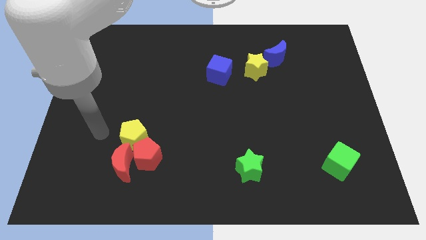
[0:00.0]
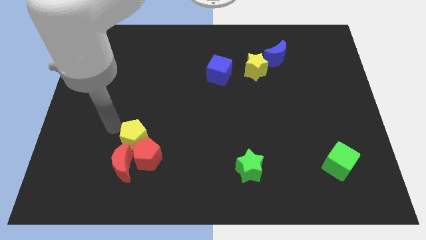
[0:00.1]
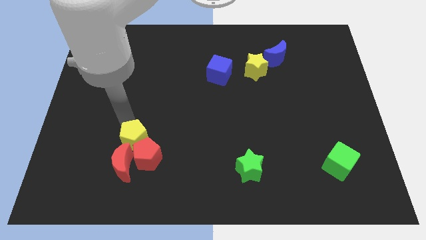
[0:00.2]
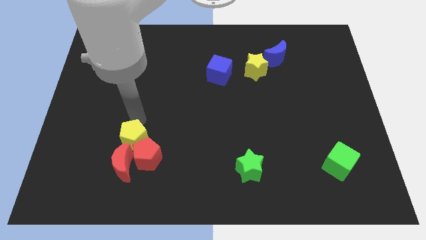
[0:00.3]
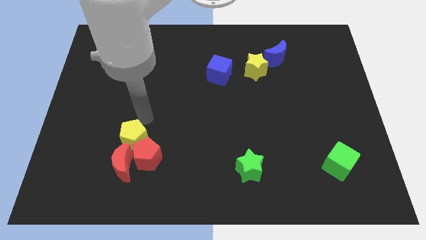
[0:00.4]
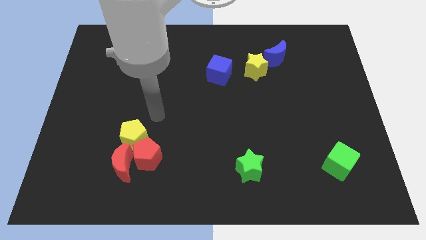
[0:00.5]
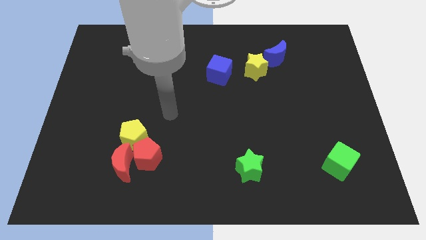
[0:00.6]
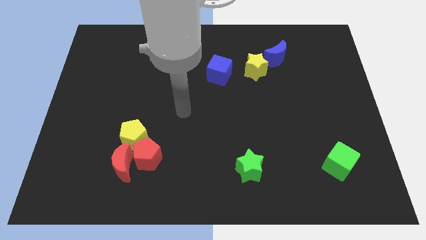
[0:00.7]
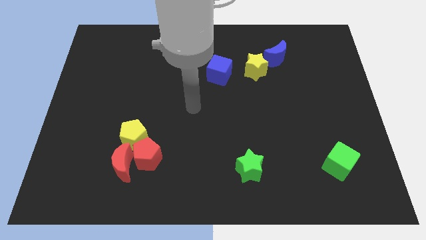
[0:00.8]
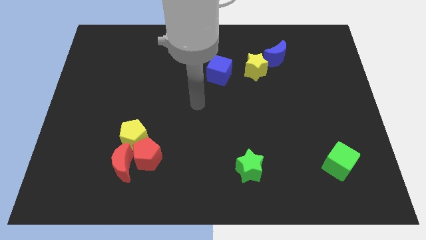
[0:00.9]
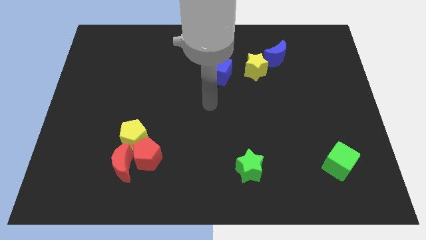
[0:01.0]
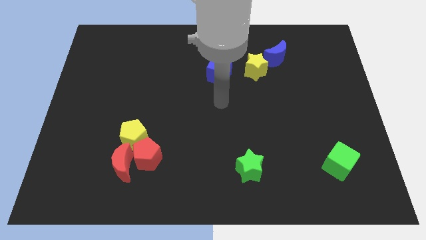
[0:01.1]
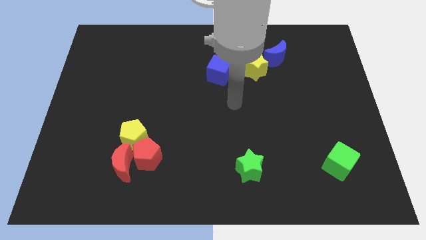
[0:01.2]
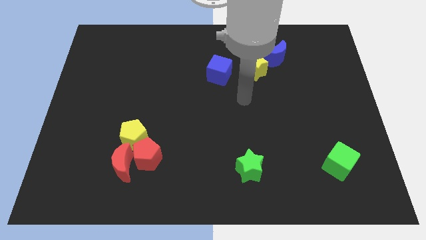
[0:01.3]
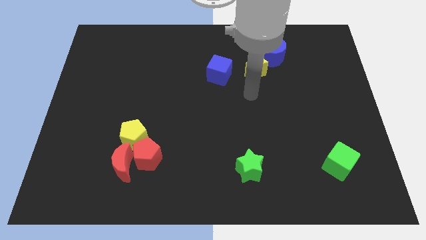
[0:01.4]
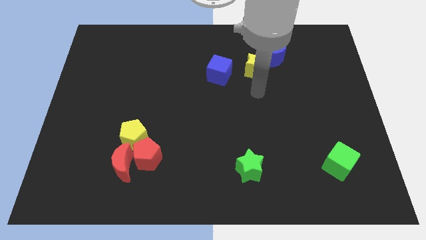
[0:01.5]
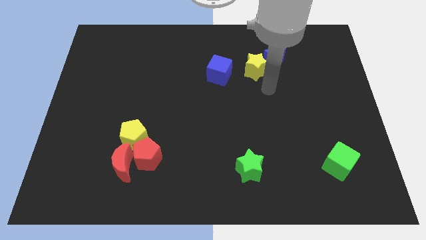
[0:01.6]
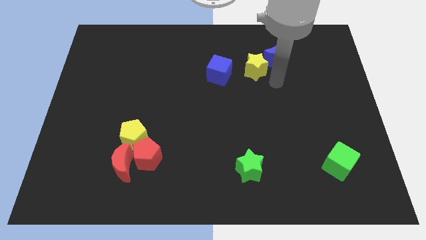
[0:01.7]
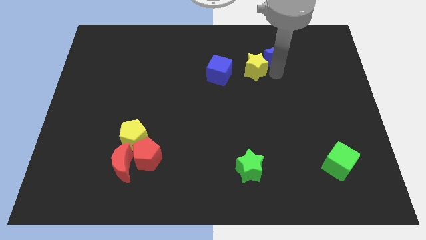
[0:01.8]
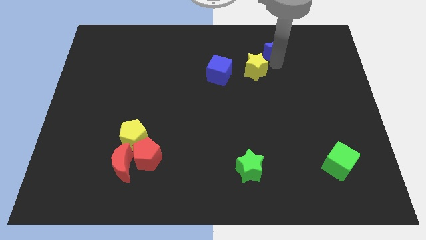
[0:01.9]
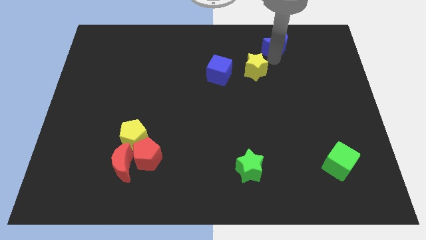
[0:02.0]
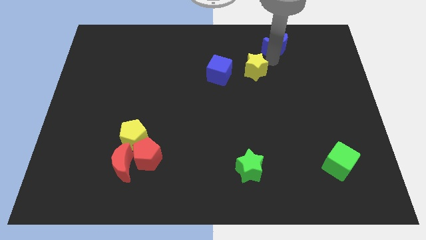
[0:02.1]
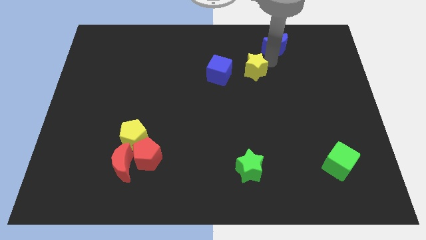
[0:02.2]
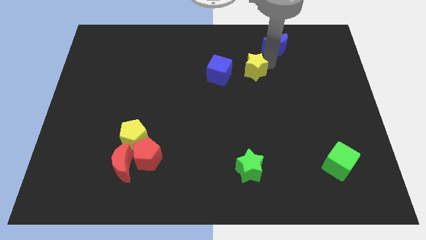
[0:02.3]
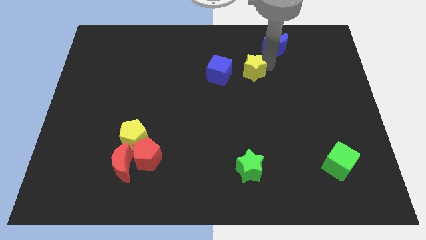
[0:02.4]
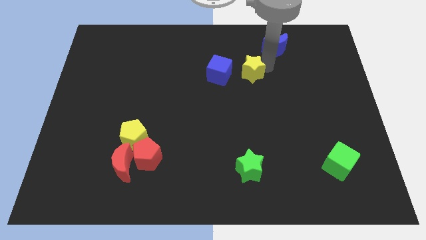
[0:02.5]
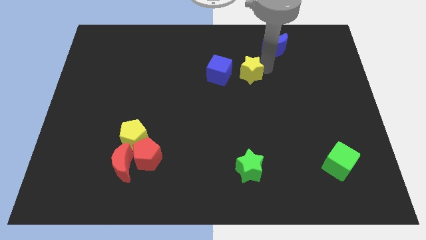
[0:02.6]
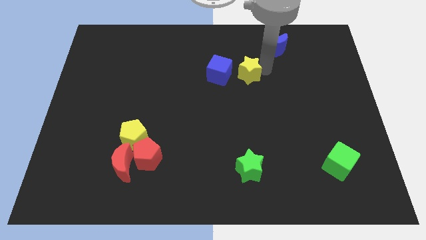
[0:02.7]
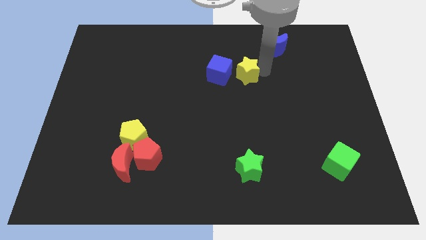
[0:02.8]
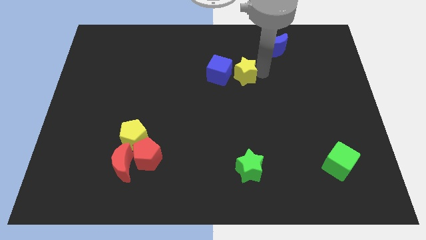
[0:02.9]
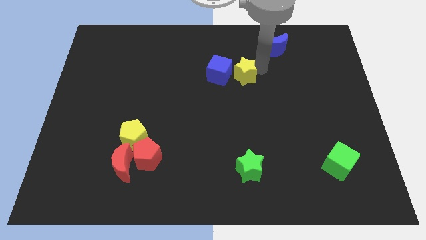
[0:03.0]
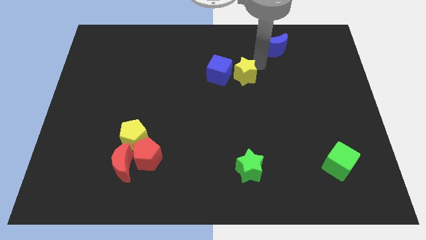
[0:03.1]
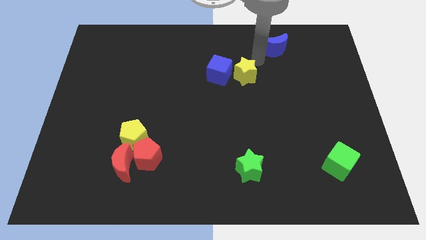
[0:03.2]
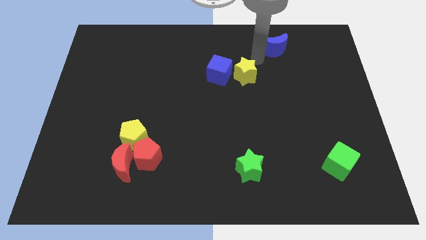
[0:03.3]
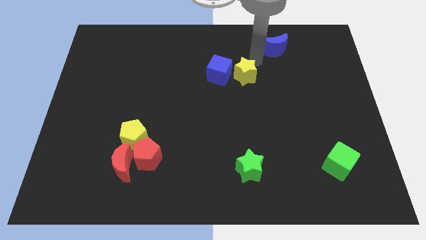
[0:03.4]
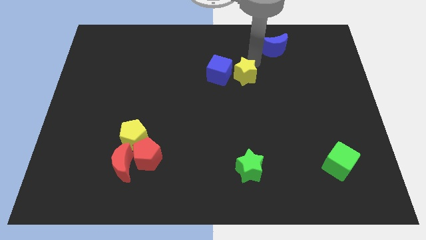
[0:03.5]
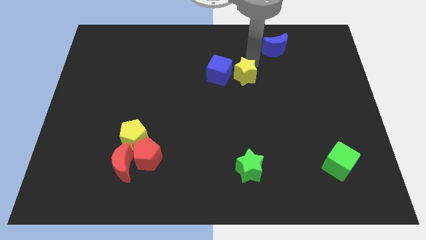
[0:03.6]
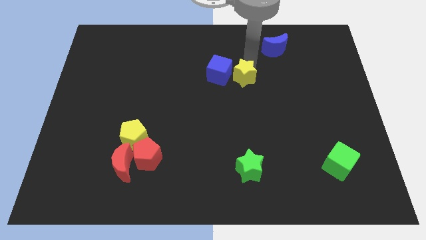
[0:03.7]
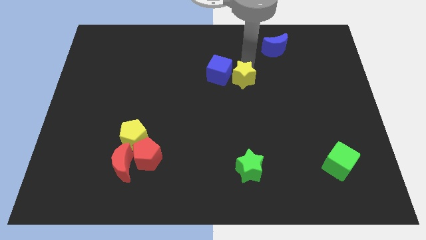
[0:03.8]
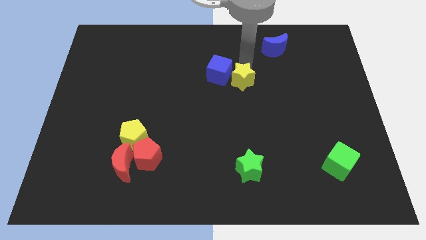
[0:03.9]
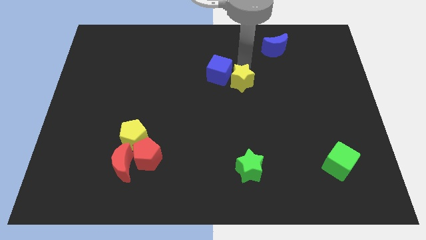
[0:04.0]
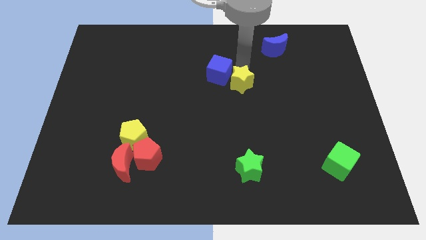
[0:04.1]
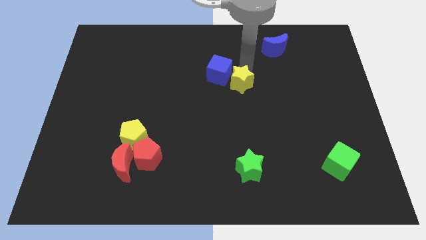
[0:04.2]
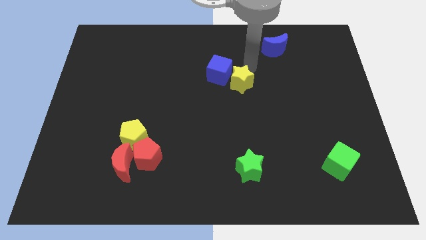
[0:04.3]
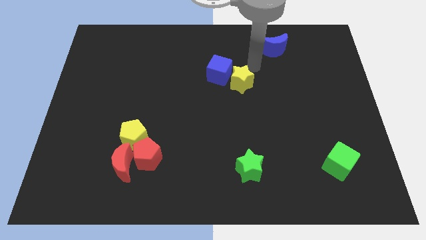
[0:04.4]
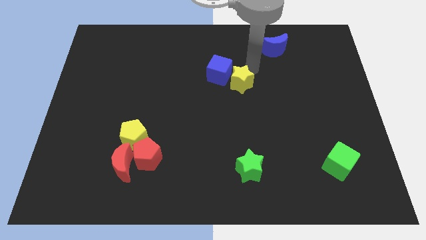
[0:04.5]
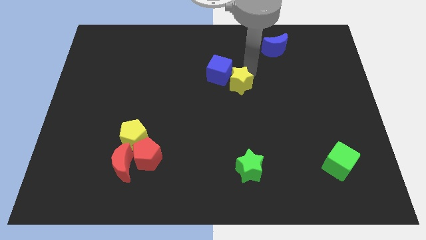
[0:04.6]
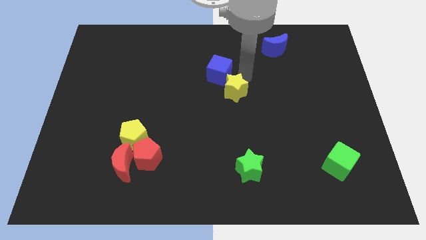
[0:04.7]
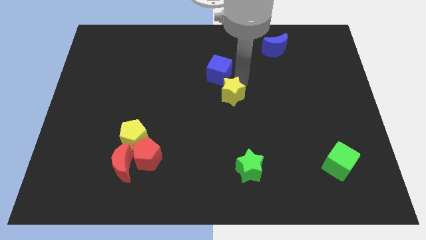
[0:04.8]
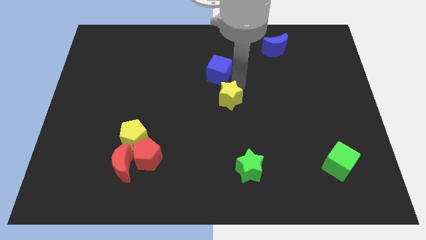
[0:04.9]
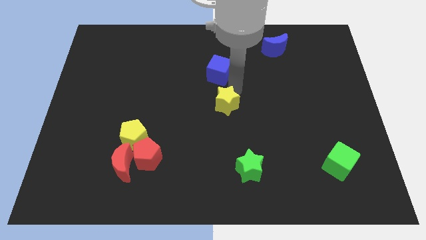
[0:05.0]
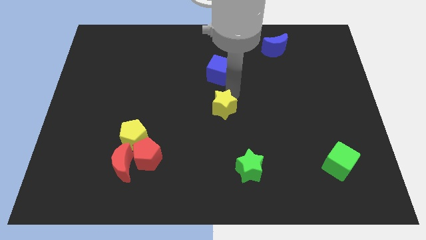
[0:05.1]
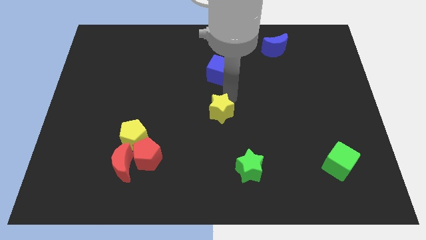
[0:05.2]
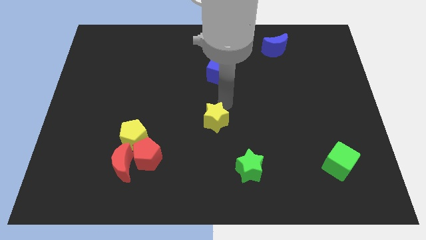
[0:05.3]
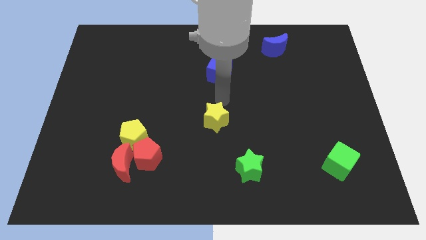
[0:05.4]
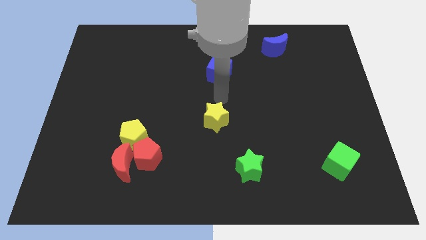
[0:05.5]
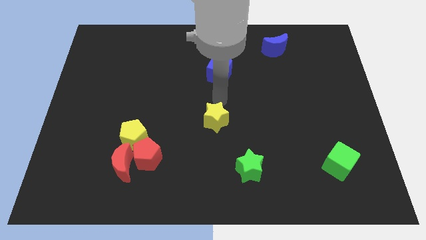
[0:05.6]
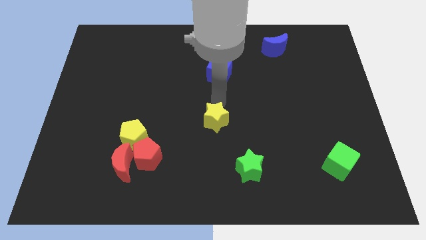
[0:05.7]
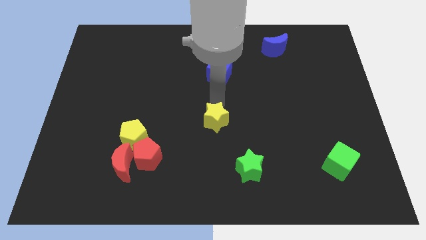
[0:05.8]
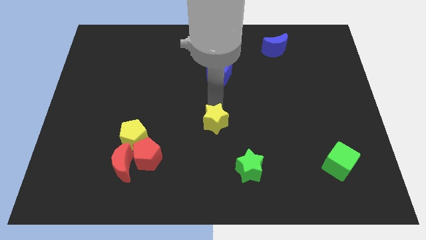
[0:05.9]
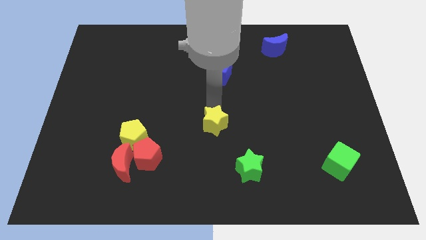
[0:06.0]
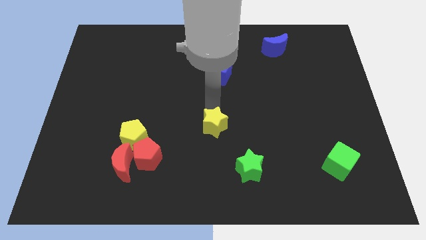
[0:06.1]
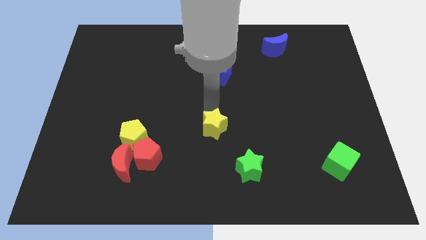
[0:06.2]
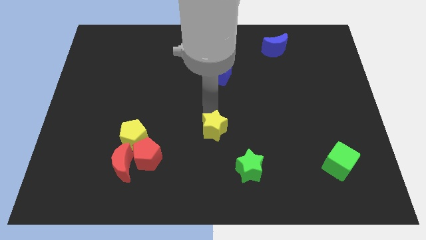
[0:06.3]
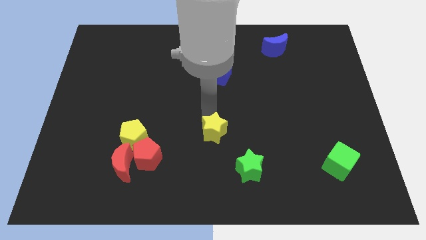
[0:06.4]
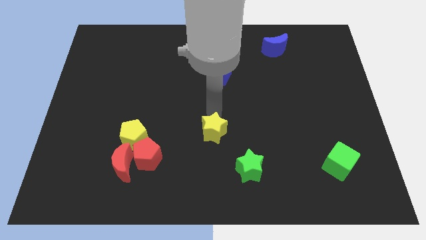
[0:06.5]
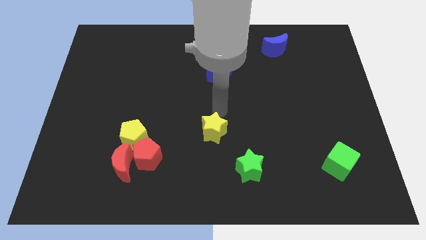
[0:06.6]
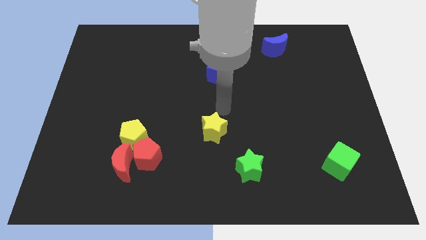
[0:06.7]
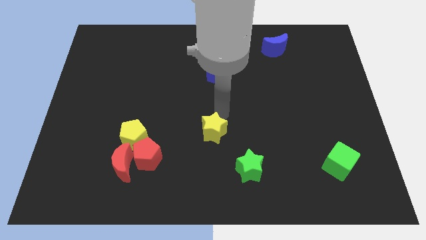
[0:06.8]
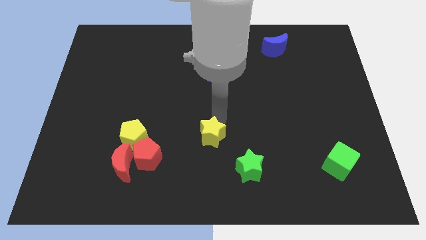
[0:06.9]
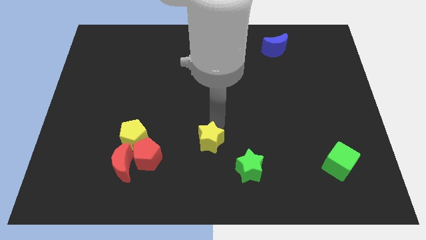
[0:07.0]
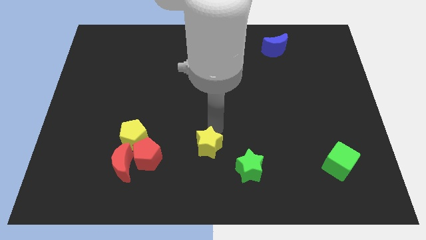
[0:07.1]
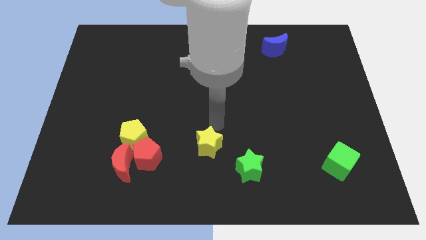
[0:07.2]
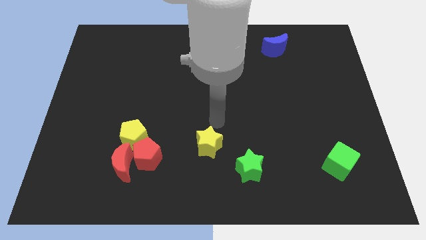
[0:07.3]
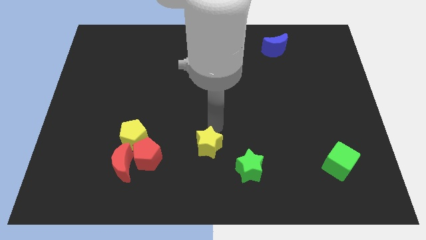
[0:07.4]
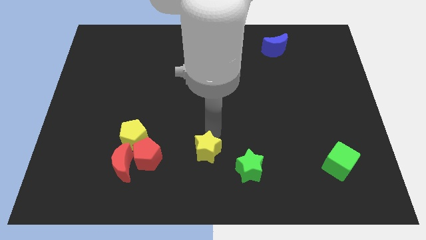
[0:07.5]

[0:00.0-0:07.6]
put the yellow star to the left side of the green star

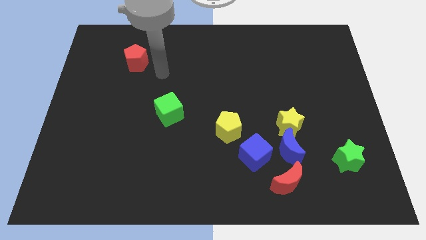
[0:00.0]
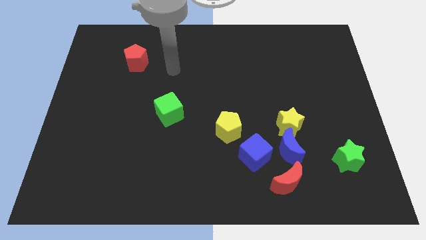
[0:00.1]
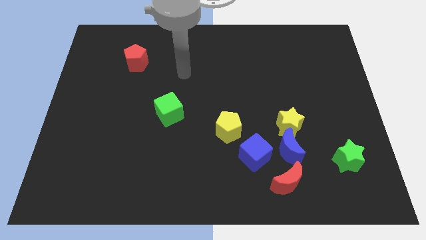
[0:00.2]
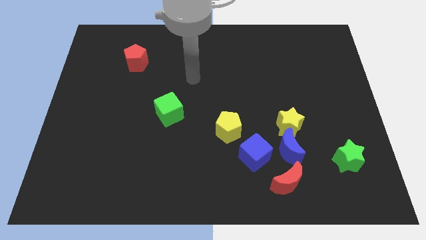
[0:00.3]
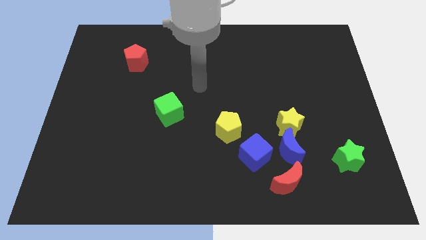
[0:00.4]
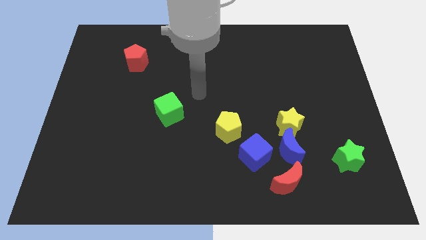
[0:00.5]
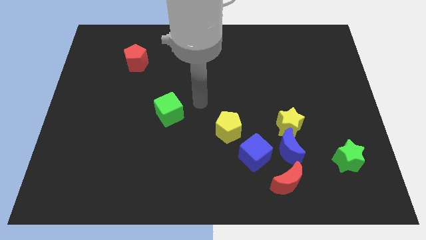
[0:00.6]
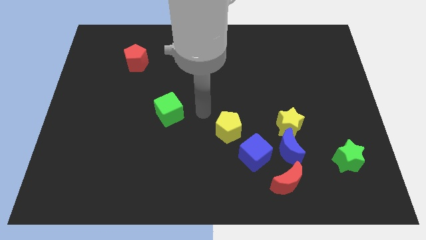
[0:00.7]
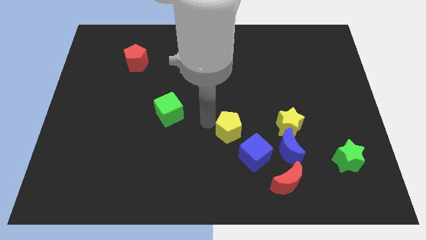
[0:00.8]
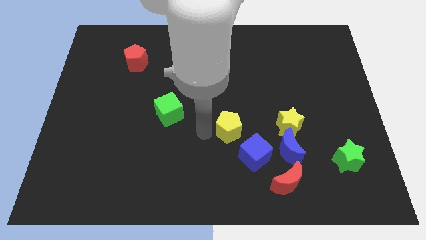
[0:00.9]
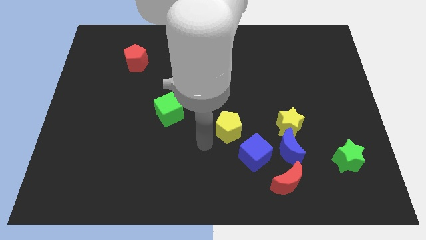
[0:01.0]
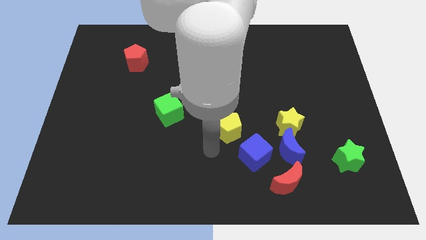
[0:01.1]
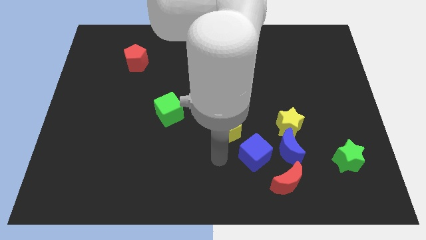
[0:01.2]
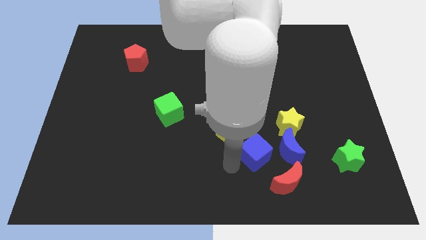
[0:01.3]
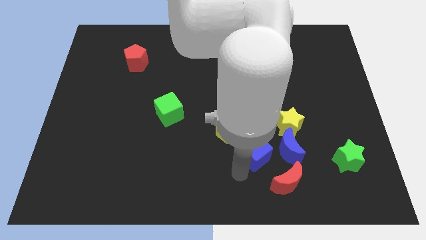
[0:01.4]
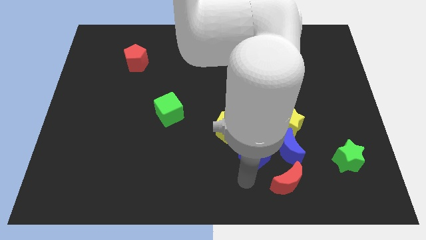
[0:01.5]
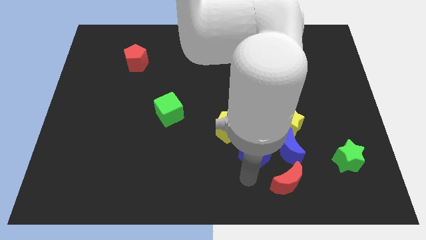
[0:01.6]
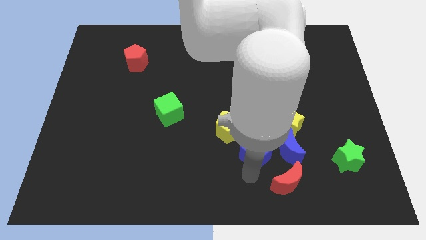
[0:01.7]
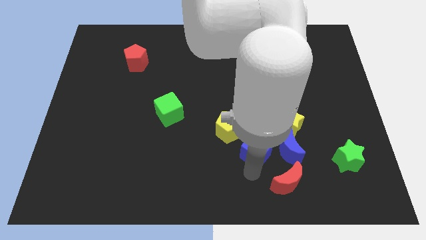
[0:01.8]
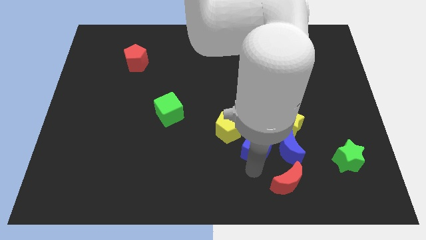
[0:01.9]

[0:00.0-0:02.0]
move the blue cube diagonally up and to the left of the blue moon
